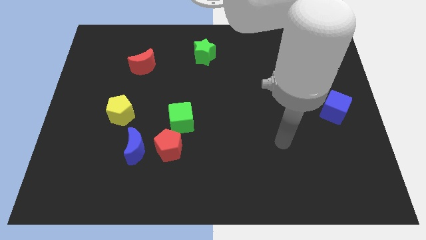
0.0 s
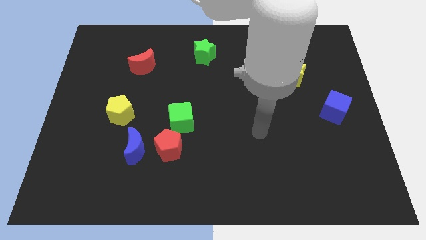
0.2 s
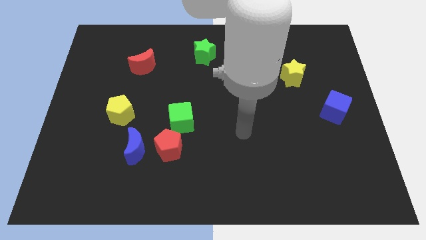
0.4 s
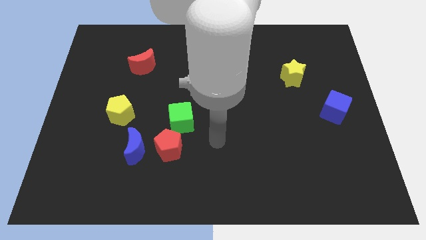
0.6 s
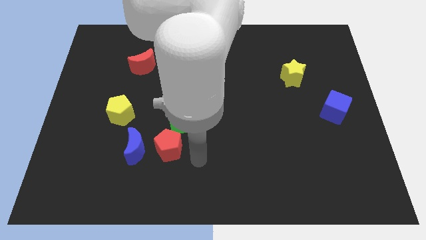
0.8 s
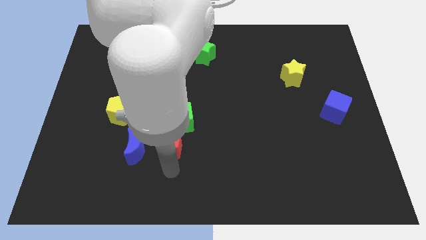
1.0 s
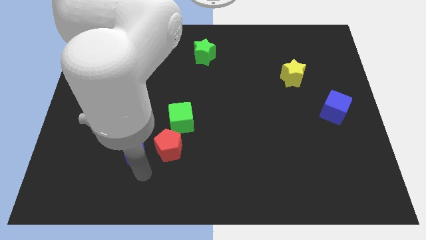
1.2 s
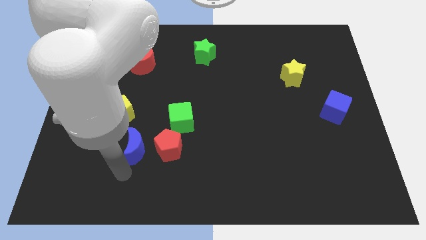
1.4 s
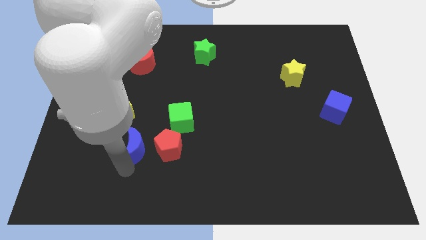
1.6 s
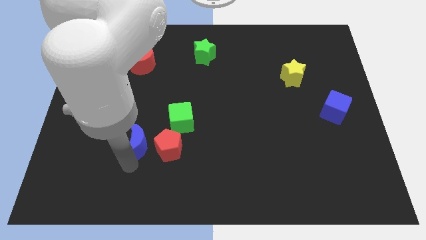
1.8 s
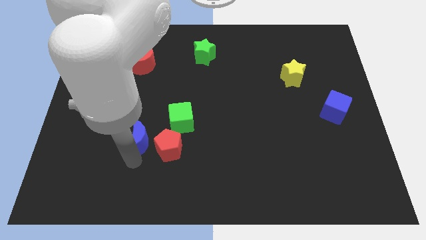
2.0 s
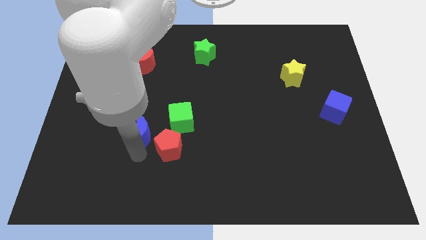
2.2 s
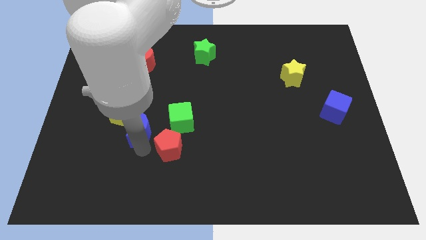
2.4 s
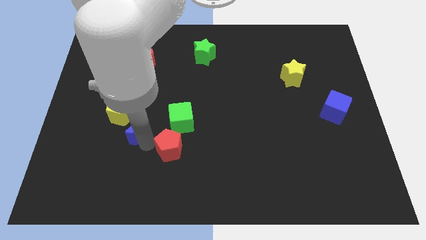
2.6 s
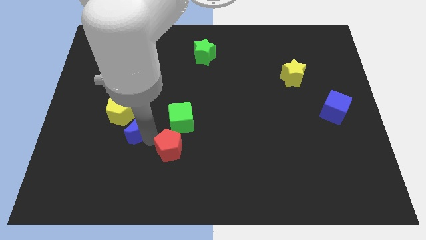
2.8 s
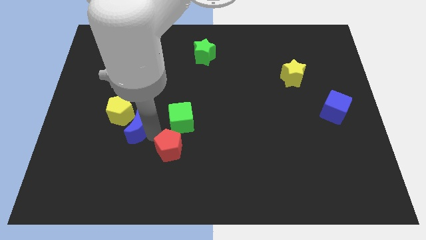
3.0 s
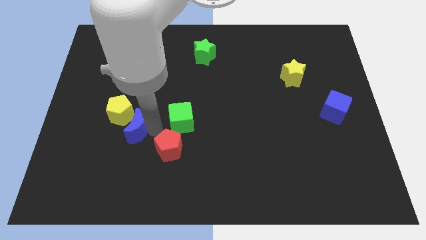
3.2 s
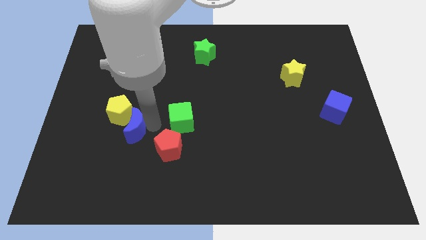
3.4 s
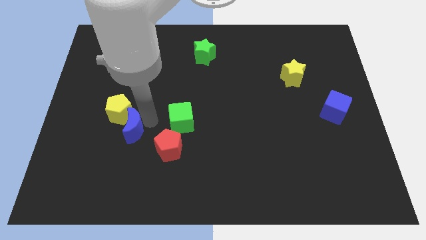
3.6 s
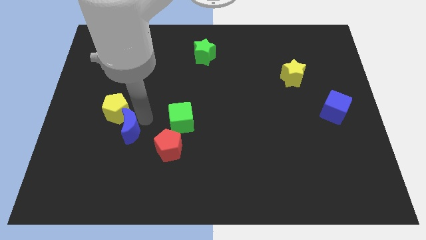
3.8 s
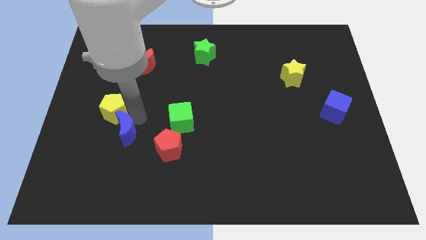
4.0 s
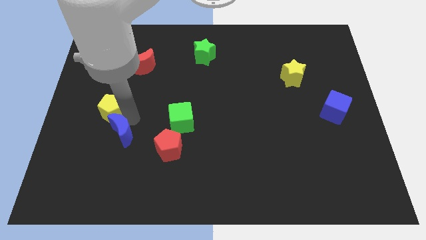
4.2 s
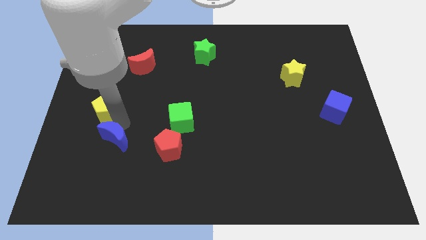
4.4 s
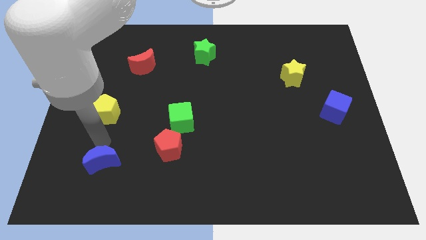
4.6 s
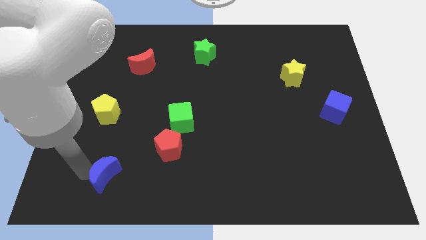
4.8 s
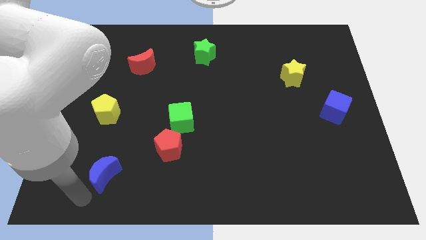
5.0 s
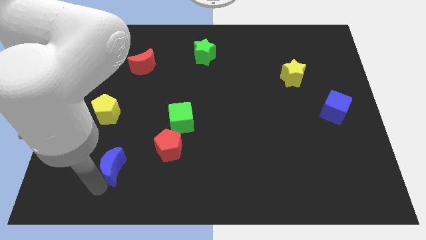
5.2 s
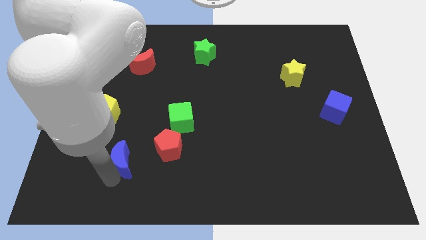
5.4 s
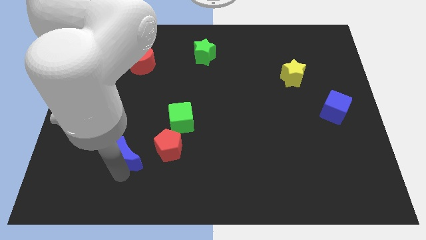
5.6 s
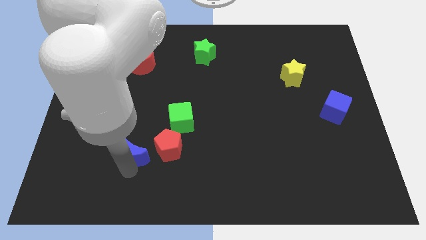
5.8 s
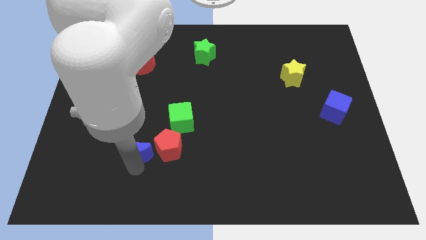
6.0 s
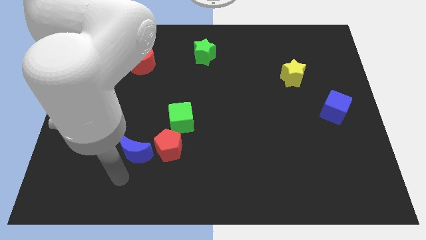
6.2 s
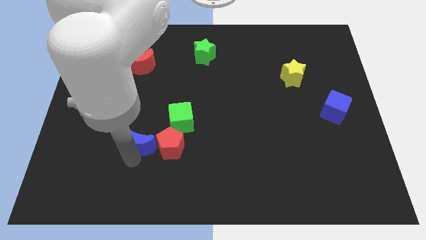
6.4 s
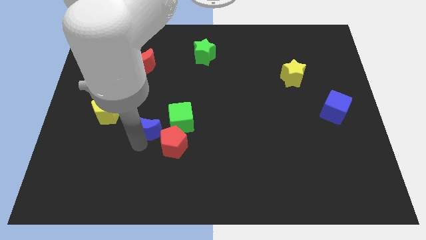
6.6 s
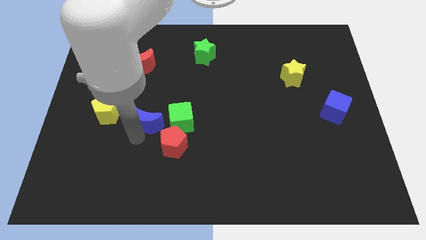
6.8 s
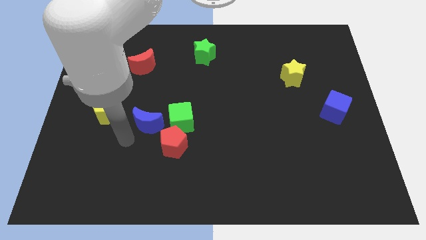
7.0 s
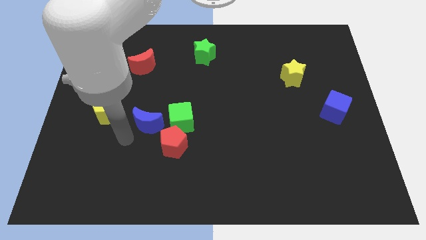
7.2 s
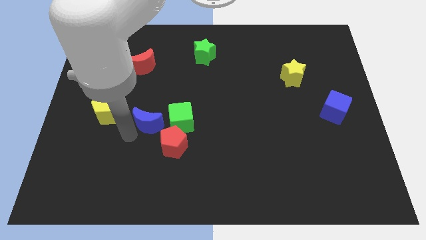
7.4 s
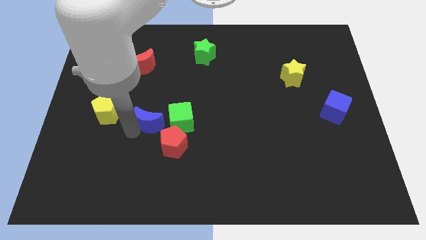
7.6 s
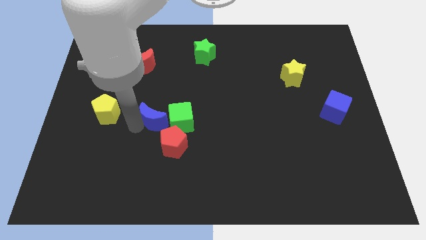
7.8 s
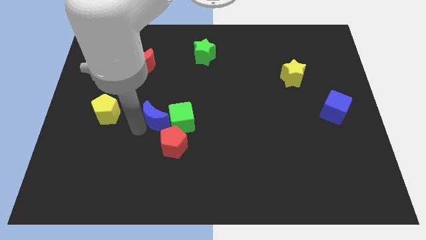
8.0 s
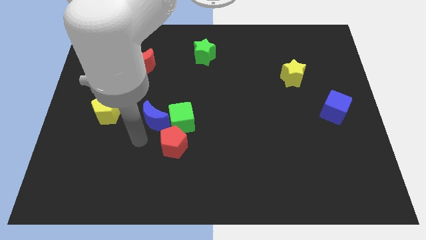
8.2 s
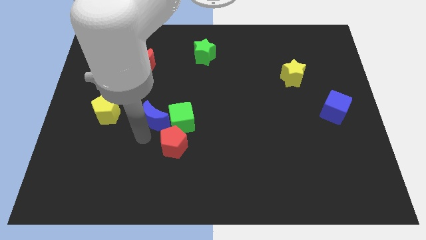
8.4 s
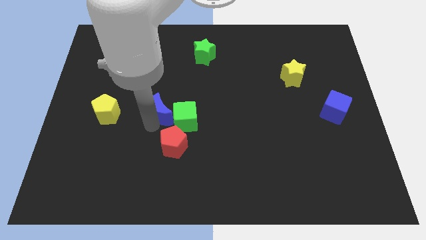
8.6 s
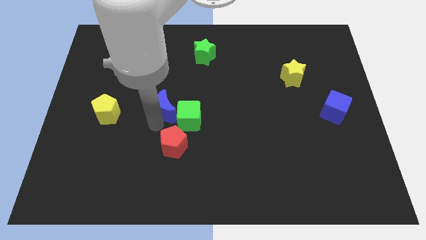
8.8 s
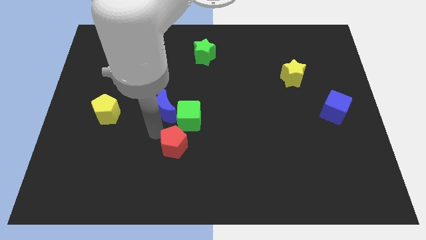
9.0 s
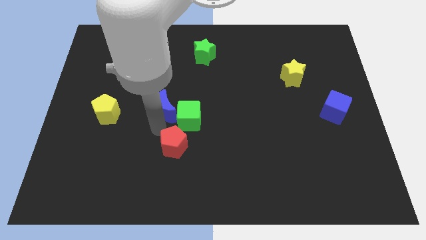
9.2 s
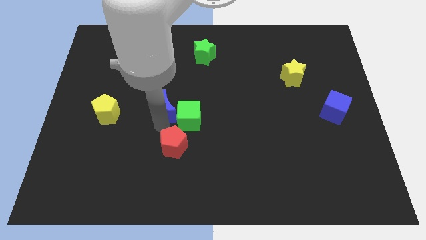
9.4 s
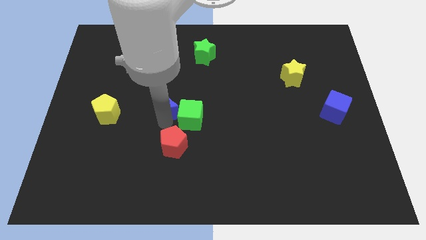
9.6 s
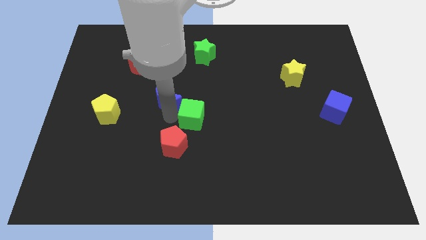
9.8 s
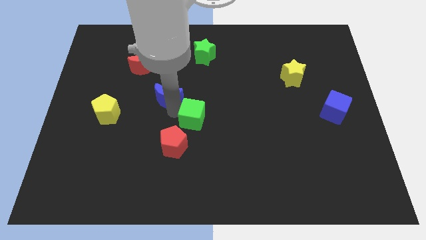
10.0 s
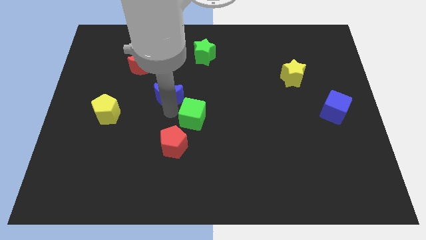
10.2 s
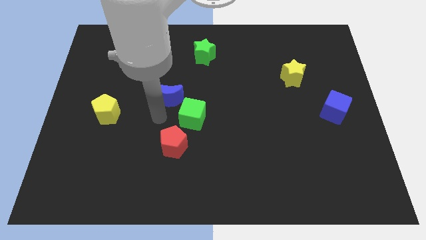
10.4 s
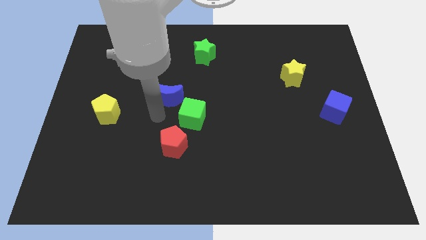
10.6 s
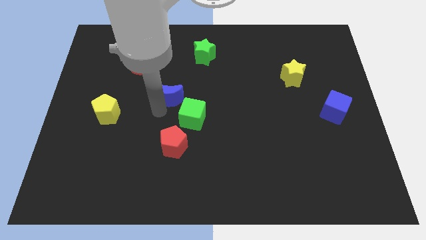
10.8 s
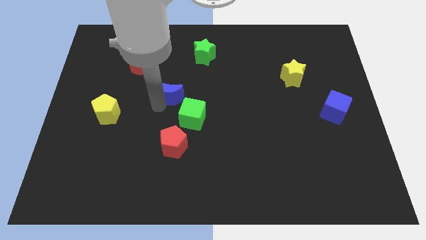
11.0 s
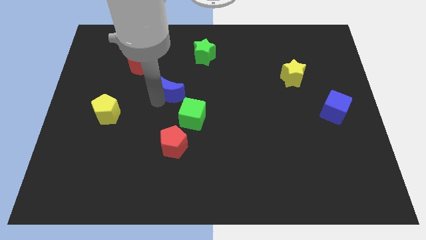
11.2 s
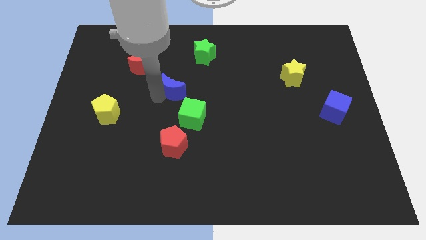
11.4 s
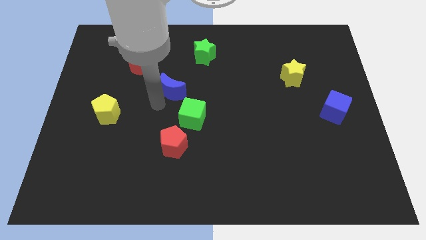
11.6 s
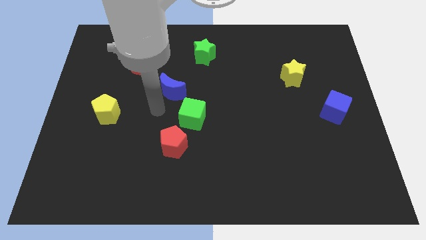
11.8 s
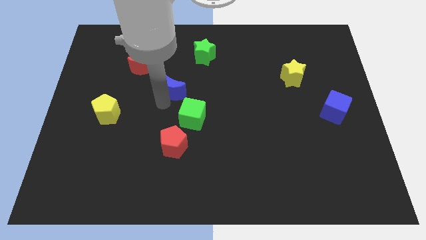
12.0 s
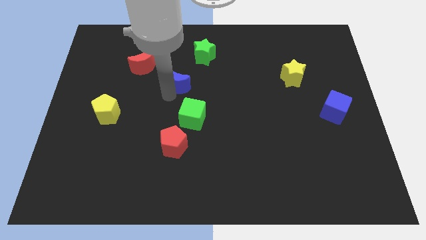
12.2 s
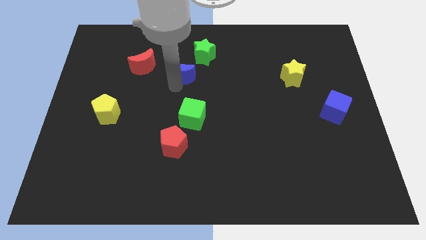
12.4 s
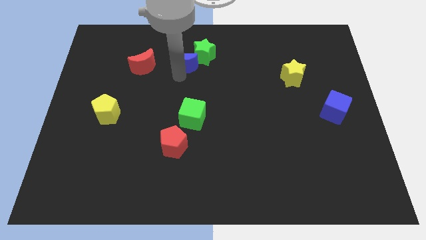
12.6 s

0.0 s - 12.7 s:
put the blue moon close to the green star

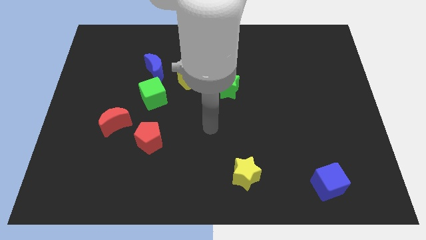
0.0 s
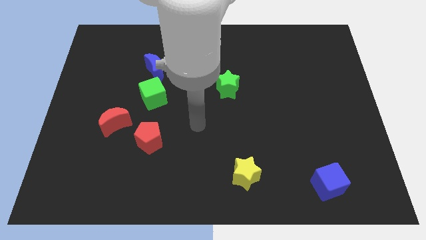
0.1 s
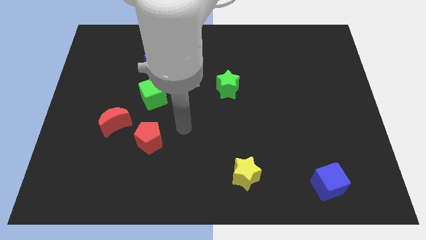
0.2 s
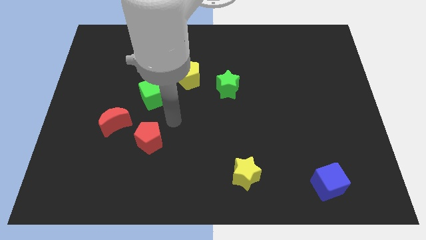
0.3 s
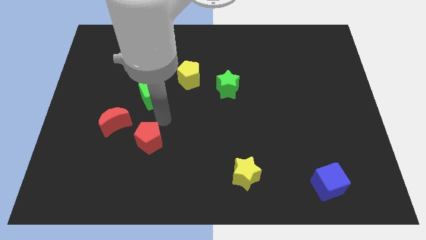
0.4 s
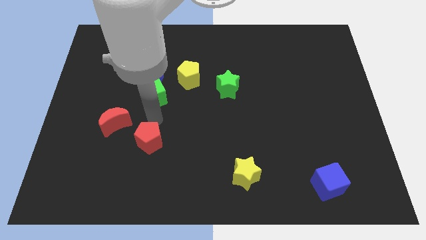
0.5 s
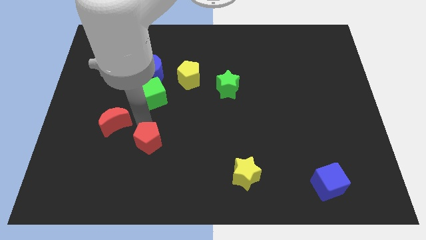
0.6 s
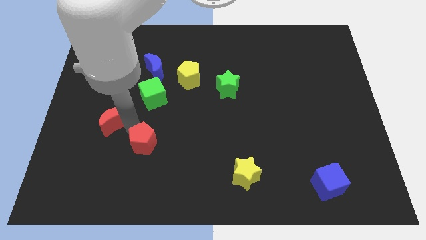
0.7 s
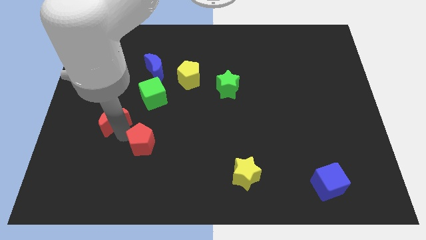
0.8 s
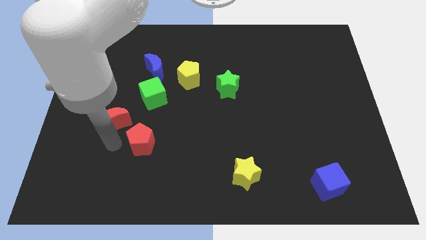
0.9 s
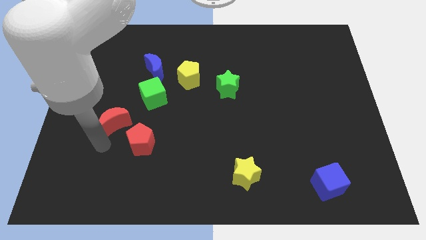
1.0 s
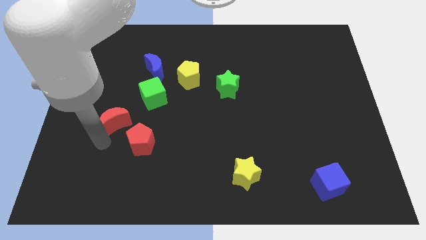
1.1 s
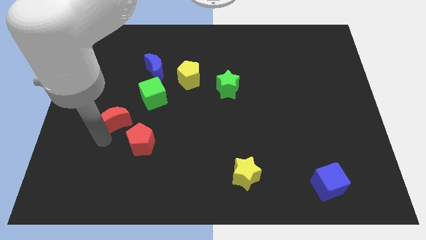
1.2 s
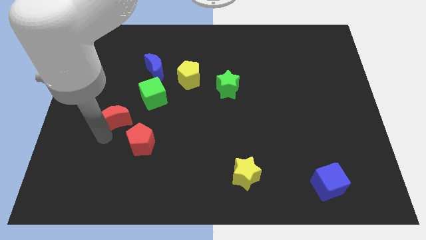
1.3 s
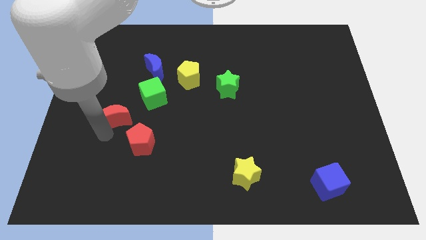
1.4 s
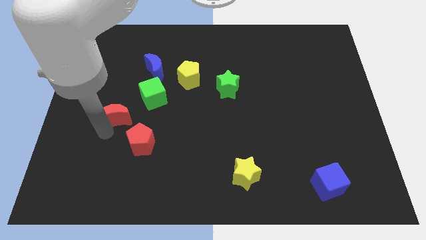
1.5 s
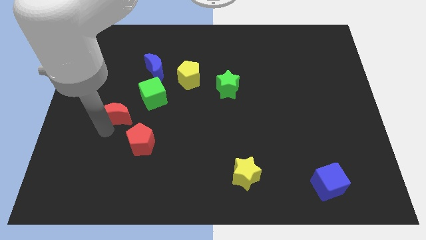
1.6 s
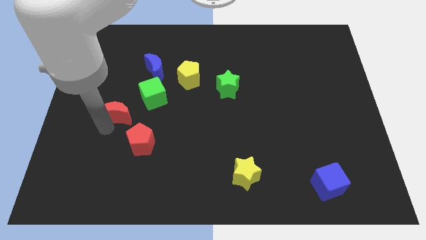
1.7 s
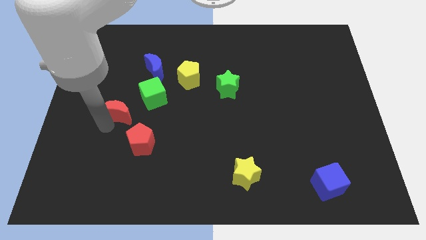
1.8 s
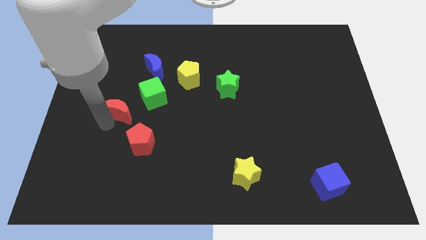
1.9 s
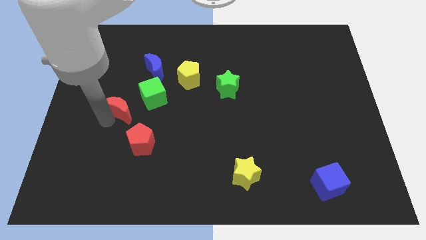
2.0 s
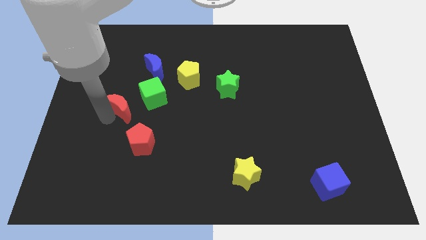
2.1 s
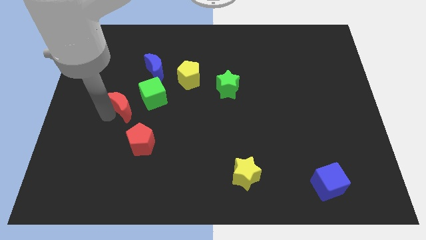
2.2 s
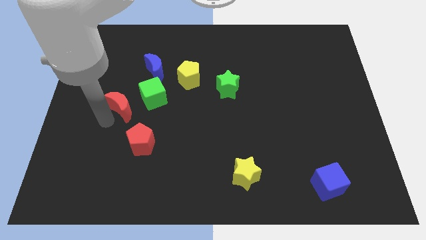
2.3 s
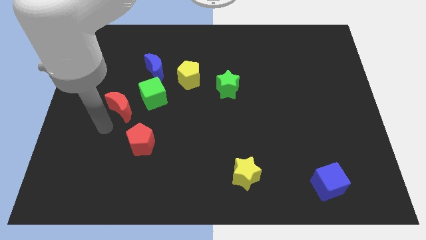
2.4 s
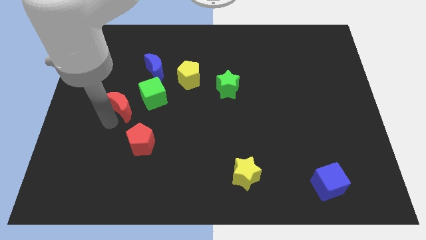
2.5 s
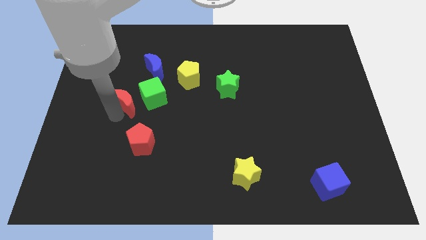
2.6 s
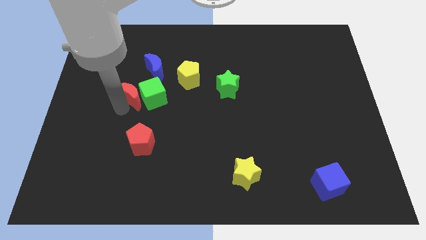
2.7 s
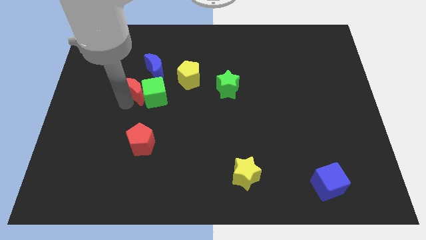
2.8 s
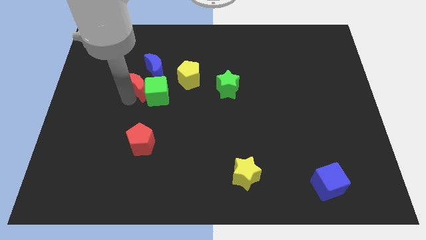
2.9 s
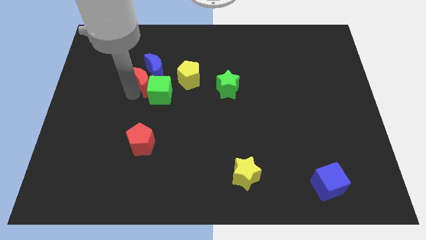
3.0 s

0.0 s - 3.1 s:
move the red moon towards the blue moon
